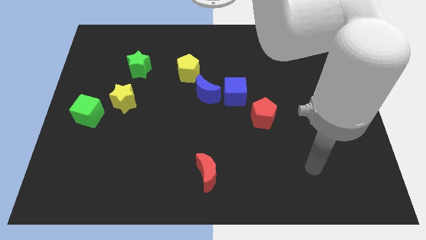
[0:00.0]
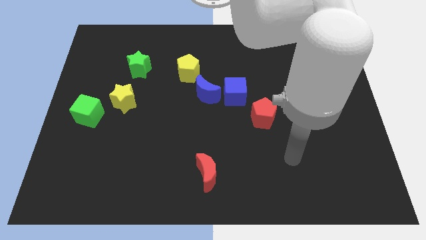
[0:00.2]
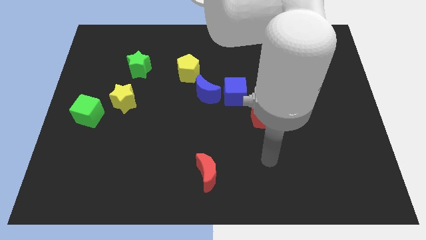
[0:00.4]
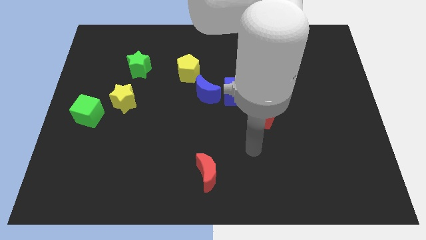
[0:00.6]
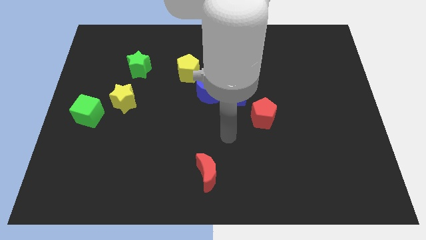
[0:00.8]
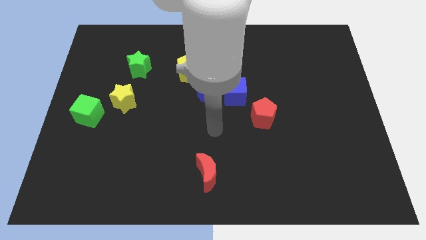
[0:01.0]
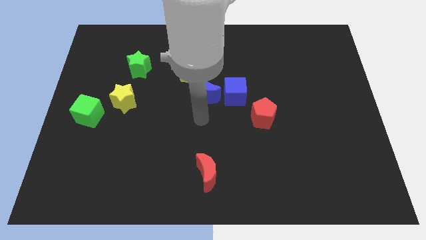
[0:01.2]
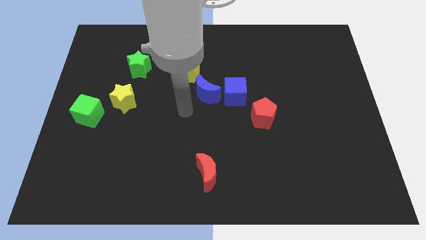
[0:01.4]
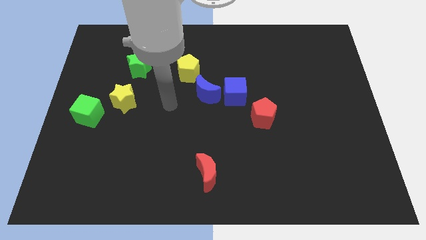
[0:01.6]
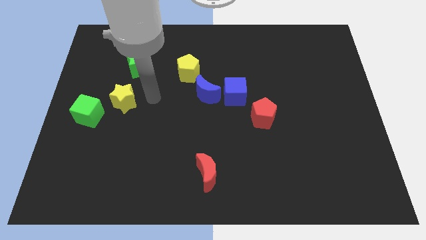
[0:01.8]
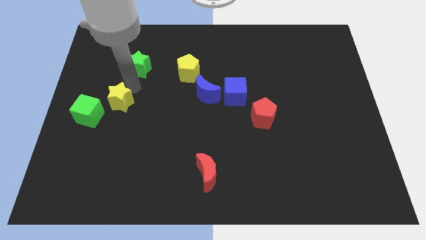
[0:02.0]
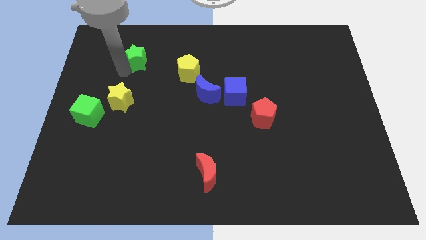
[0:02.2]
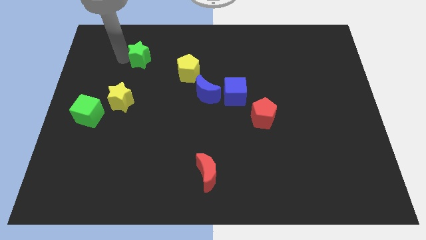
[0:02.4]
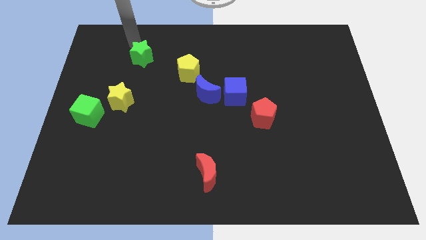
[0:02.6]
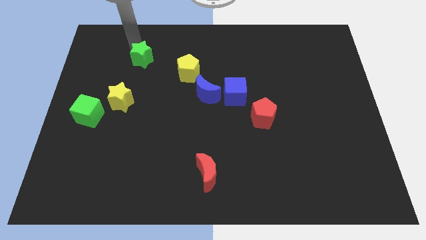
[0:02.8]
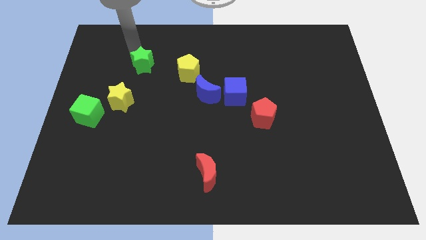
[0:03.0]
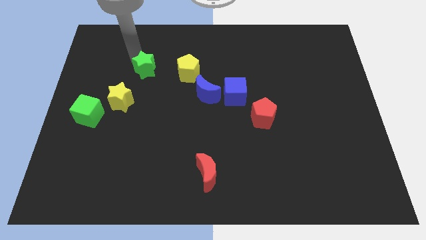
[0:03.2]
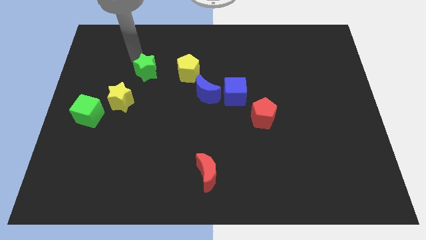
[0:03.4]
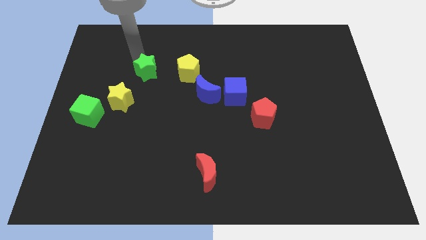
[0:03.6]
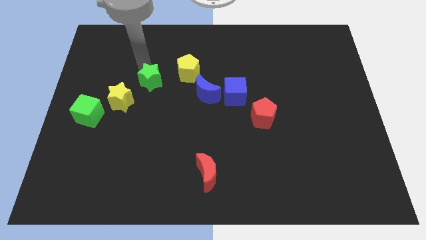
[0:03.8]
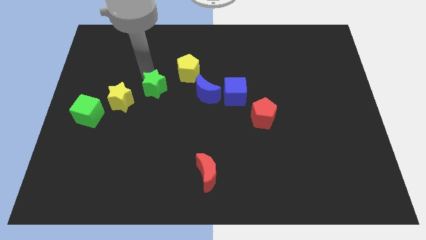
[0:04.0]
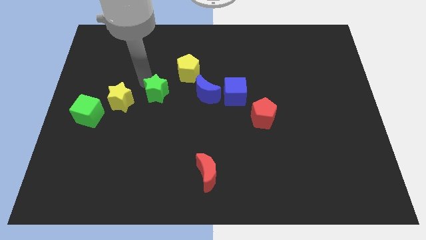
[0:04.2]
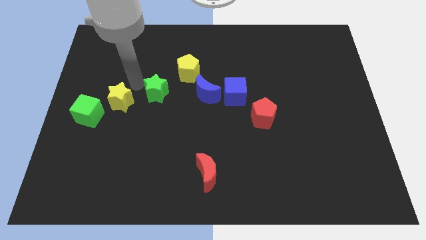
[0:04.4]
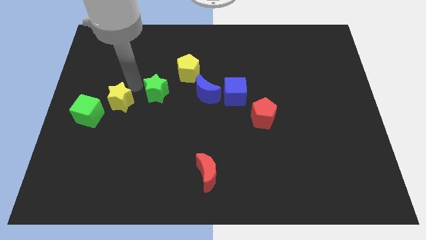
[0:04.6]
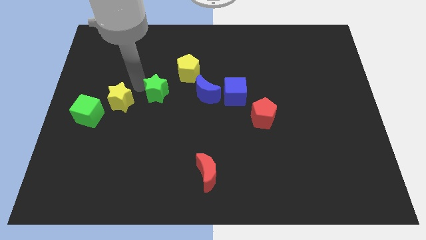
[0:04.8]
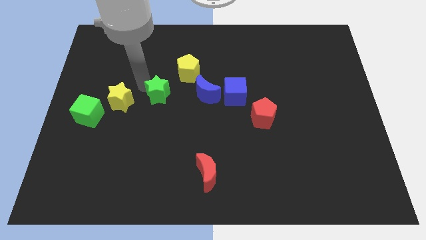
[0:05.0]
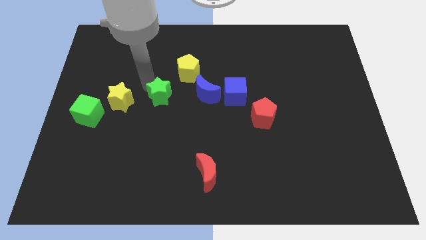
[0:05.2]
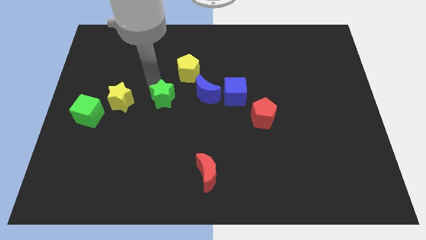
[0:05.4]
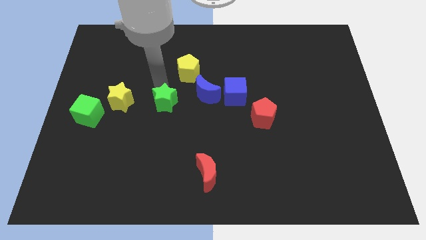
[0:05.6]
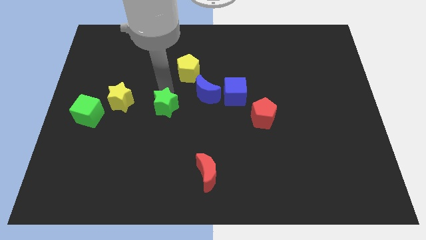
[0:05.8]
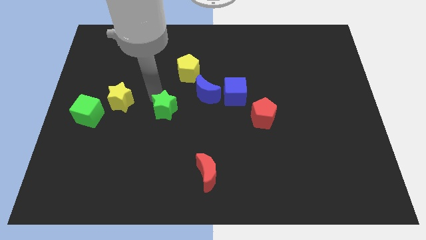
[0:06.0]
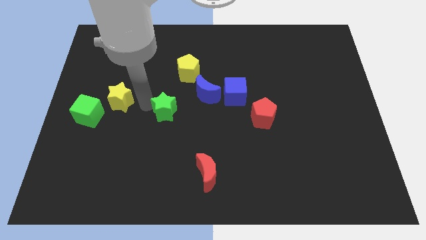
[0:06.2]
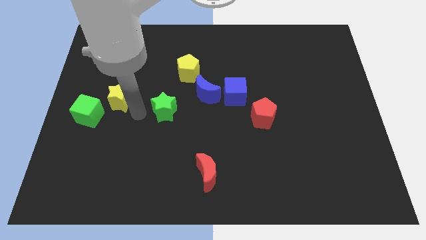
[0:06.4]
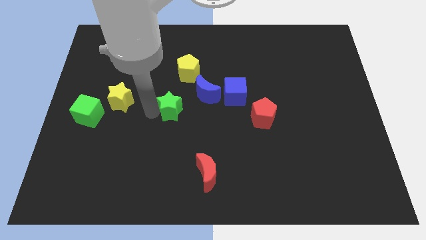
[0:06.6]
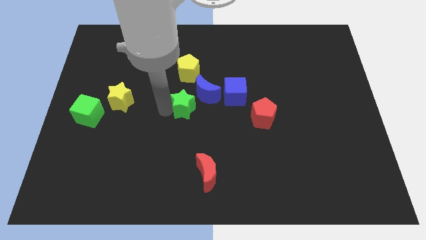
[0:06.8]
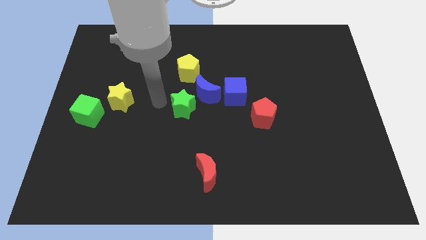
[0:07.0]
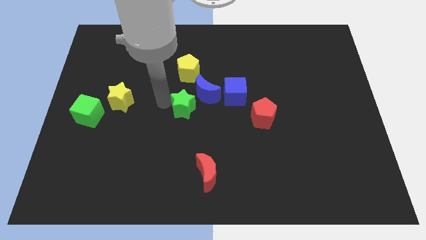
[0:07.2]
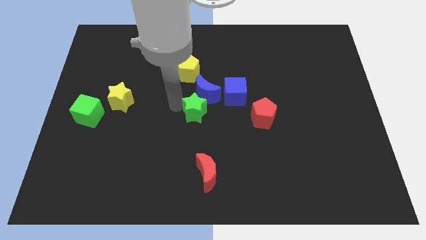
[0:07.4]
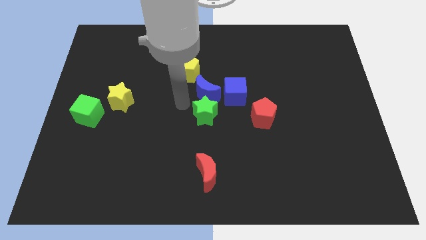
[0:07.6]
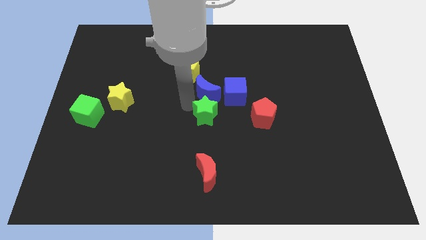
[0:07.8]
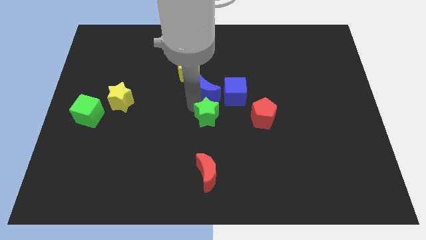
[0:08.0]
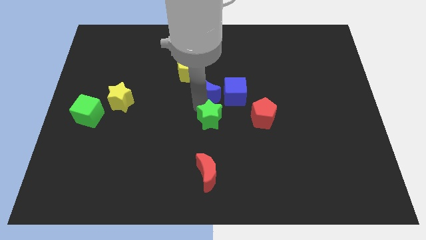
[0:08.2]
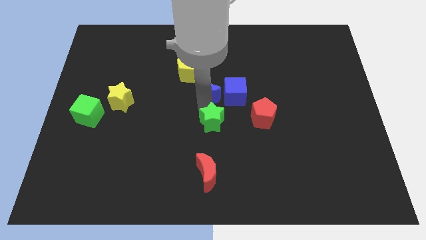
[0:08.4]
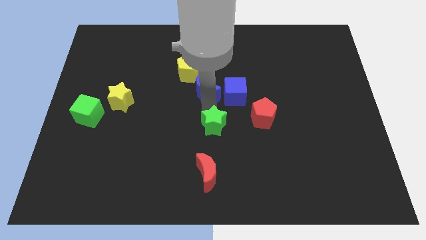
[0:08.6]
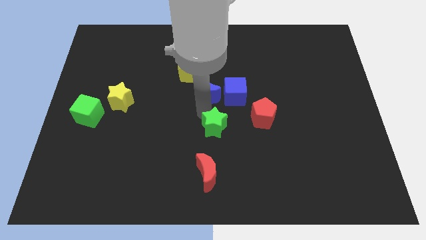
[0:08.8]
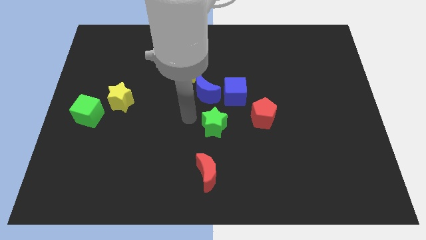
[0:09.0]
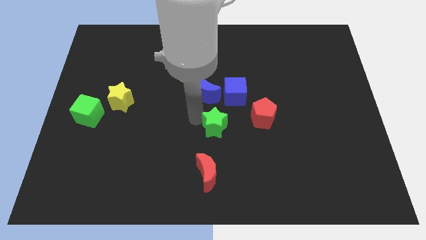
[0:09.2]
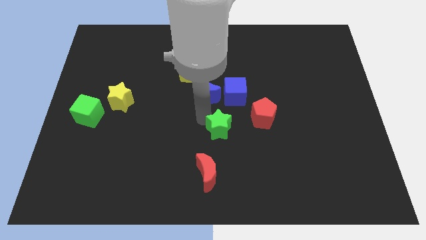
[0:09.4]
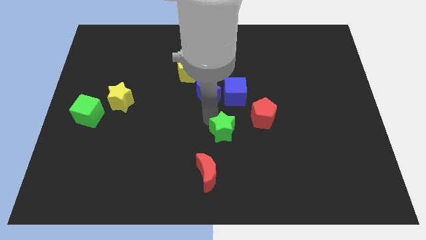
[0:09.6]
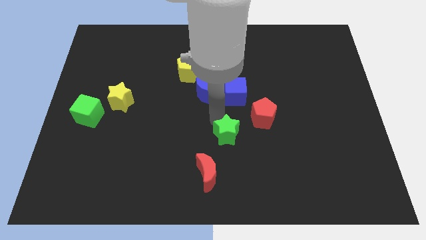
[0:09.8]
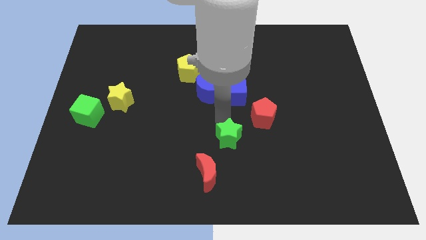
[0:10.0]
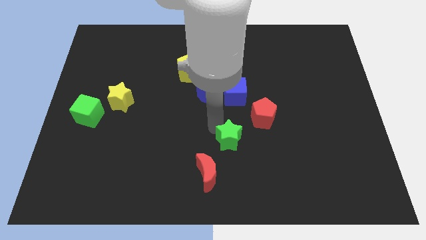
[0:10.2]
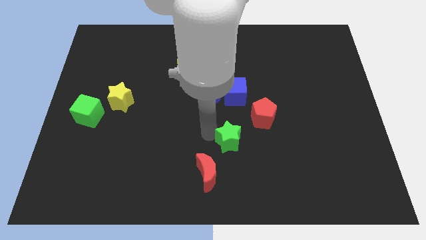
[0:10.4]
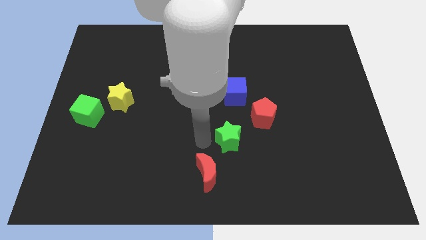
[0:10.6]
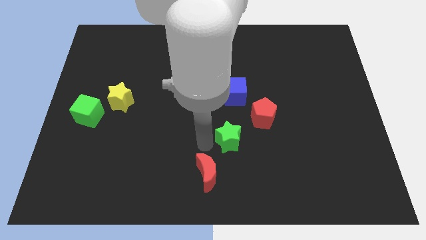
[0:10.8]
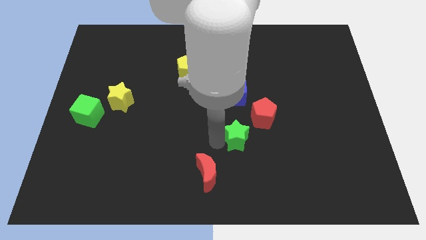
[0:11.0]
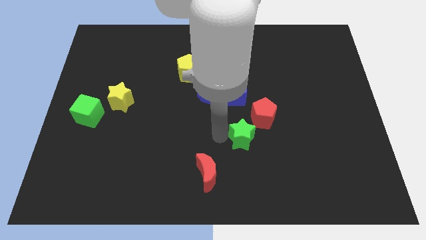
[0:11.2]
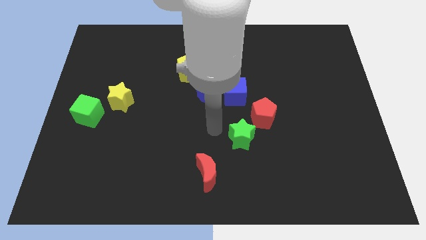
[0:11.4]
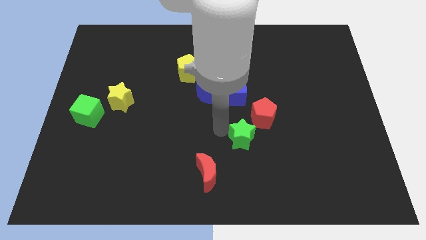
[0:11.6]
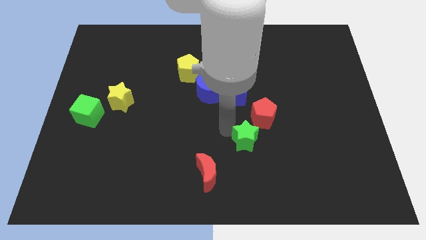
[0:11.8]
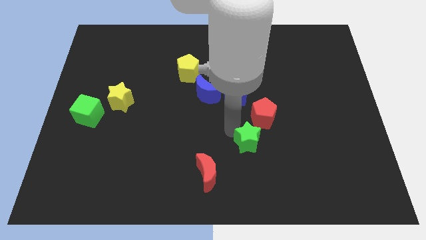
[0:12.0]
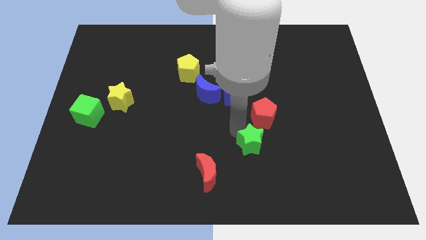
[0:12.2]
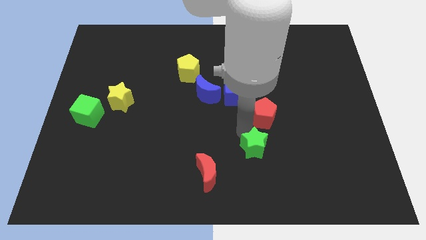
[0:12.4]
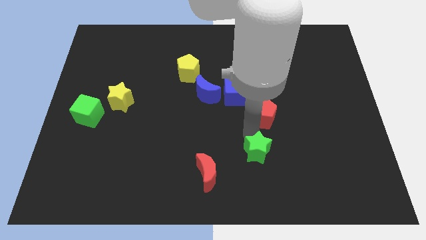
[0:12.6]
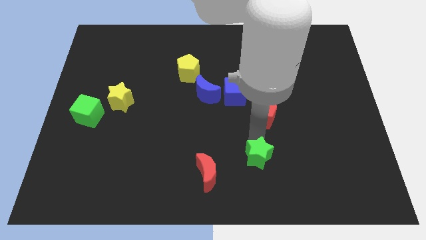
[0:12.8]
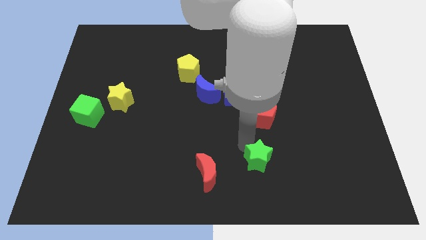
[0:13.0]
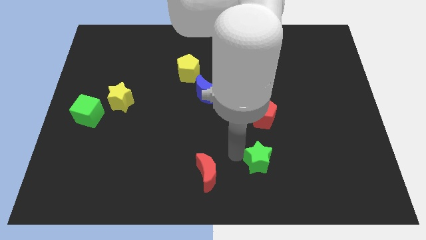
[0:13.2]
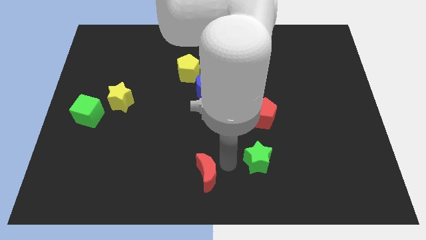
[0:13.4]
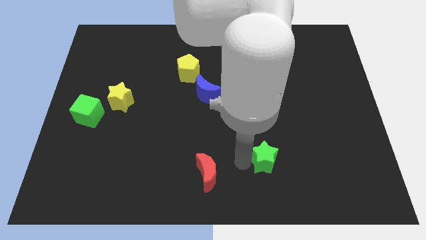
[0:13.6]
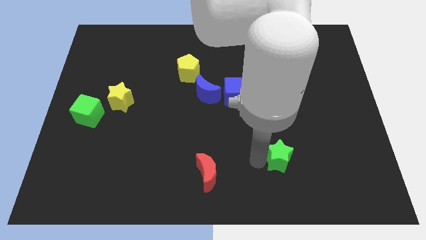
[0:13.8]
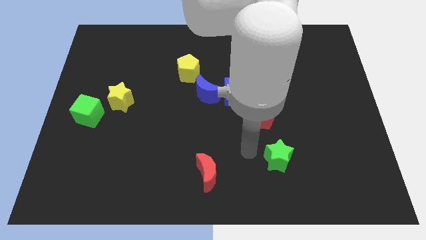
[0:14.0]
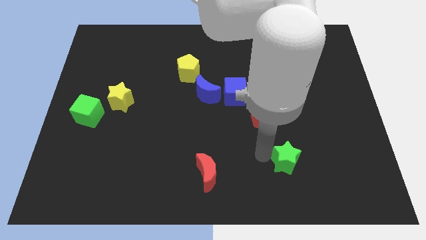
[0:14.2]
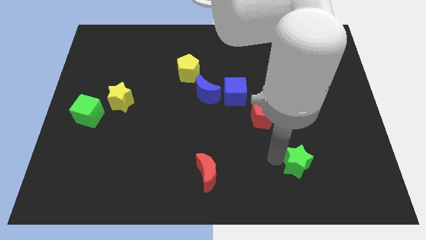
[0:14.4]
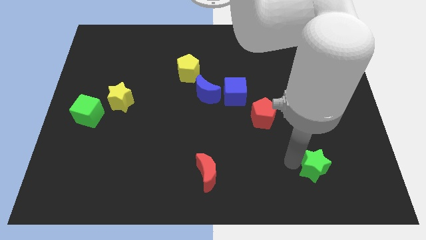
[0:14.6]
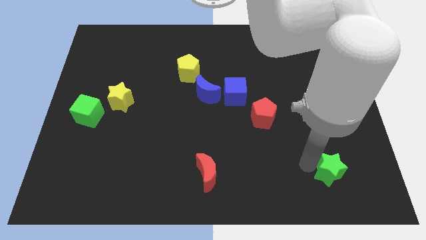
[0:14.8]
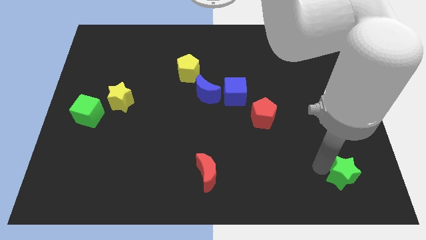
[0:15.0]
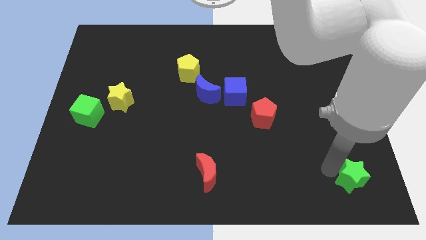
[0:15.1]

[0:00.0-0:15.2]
move the green star to the bottom right
